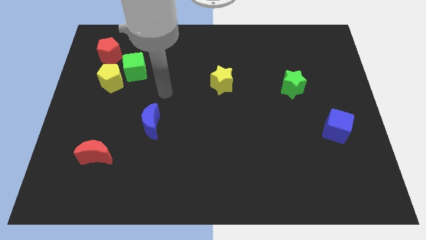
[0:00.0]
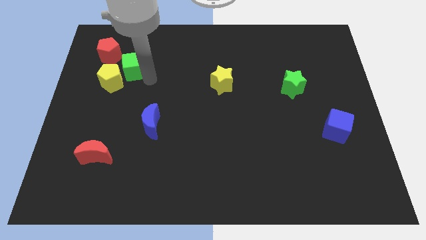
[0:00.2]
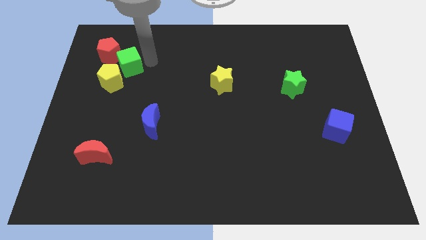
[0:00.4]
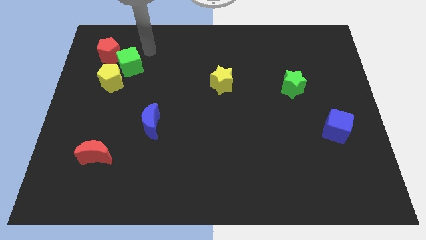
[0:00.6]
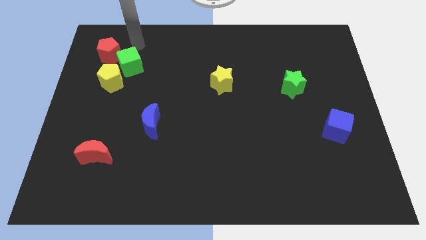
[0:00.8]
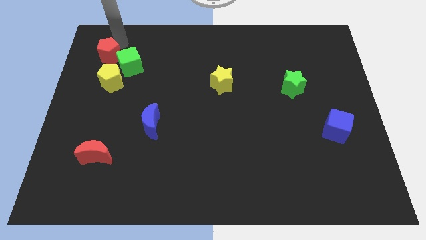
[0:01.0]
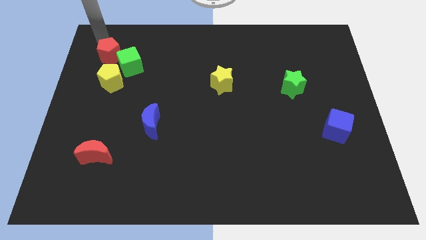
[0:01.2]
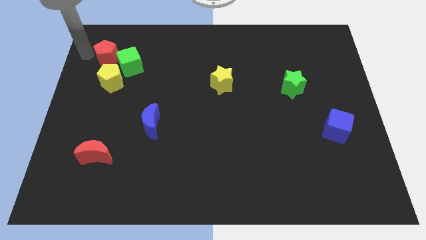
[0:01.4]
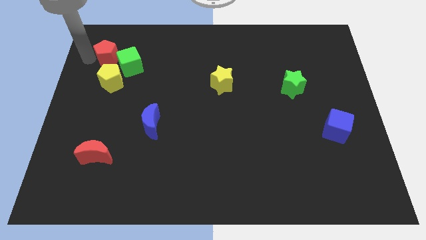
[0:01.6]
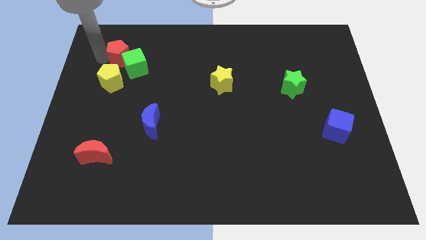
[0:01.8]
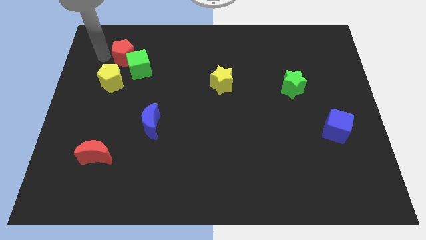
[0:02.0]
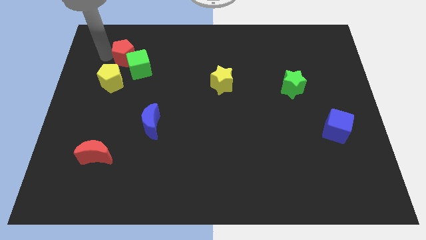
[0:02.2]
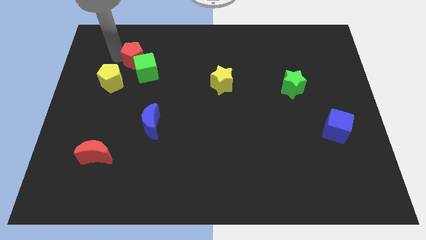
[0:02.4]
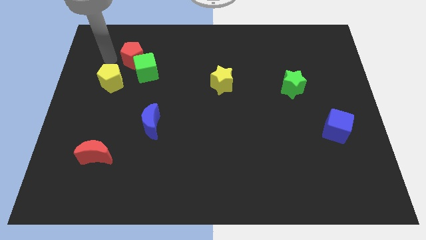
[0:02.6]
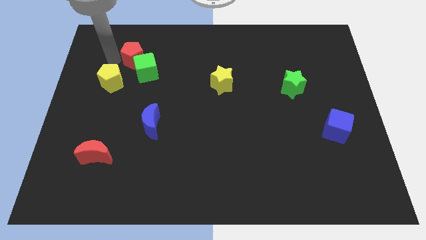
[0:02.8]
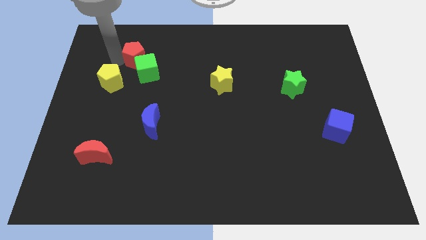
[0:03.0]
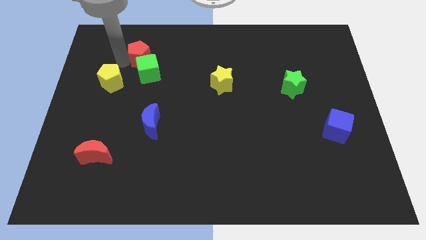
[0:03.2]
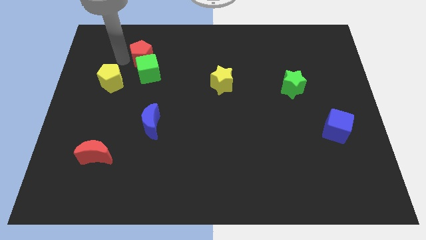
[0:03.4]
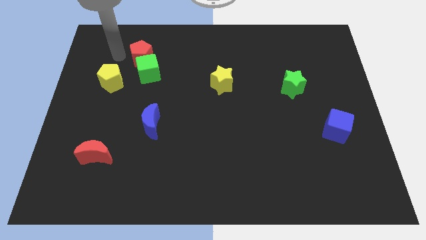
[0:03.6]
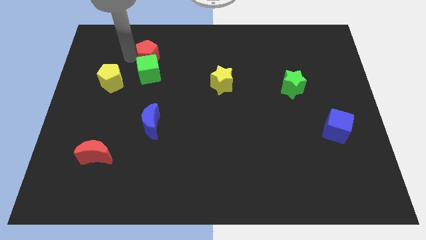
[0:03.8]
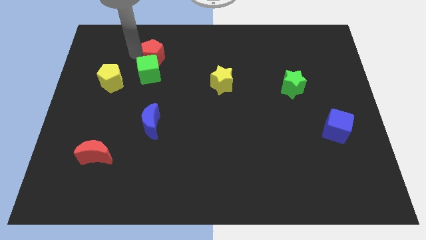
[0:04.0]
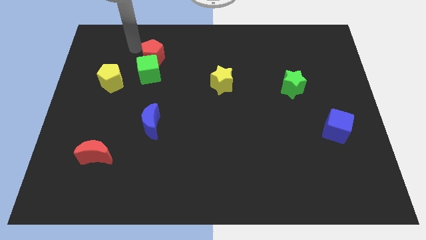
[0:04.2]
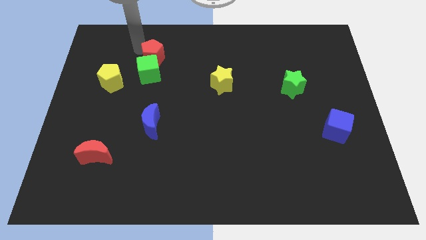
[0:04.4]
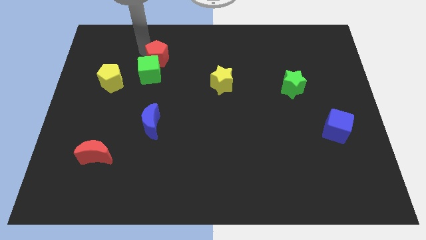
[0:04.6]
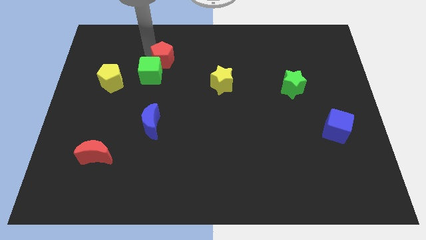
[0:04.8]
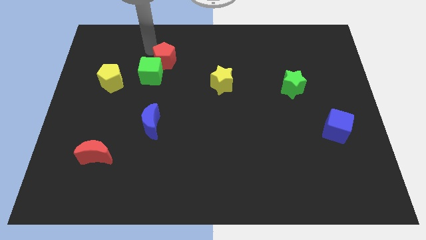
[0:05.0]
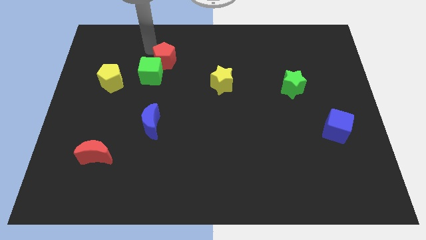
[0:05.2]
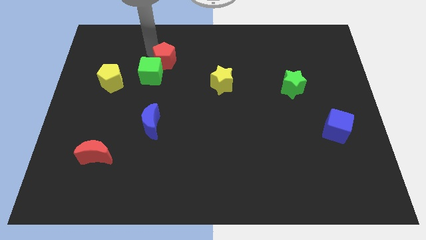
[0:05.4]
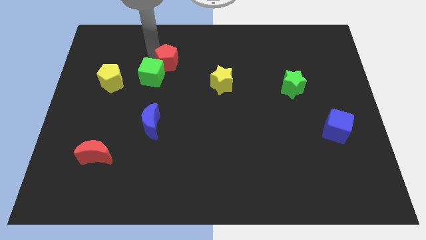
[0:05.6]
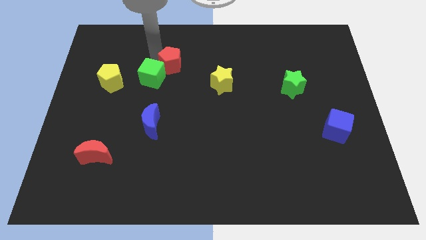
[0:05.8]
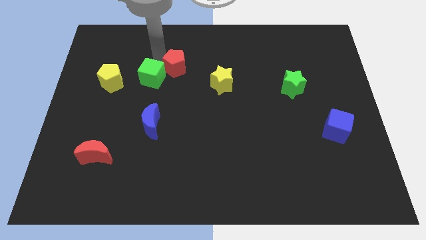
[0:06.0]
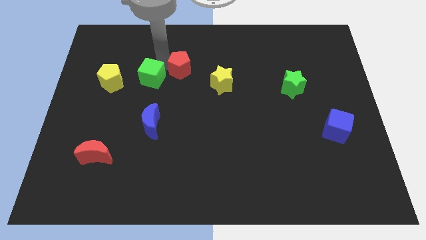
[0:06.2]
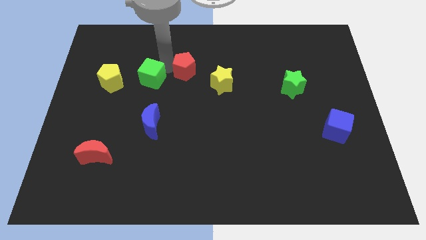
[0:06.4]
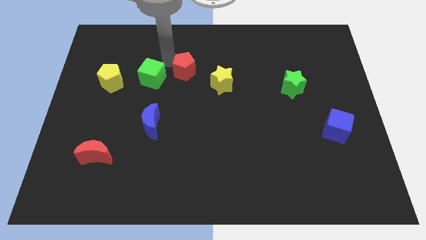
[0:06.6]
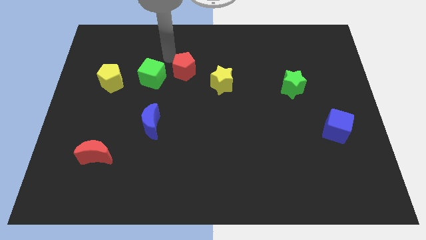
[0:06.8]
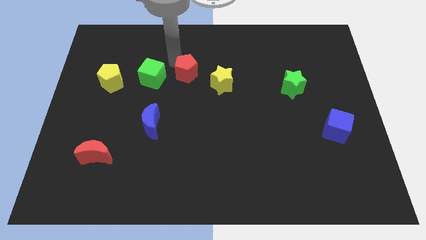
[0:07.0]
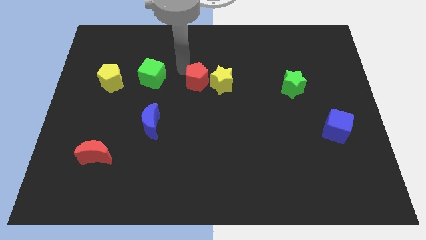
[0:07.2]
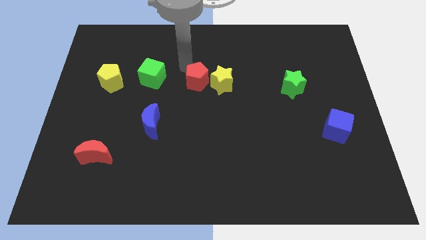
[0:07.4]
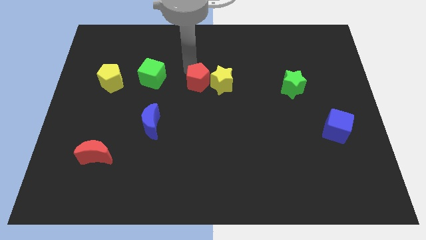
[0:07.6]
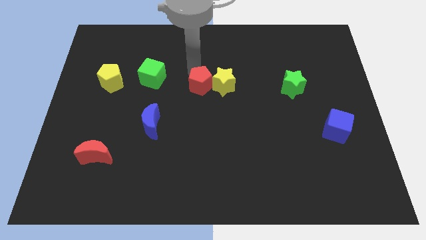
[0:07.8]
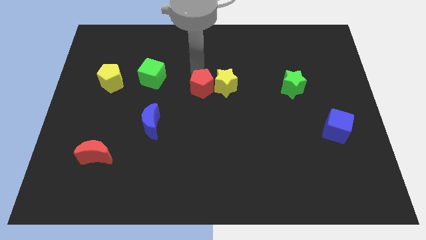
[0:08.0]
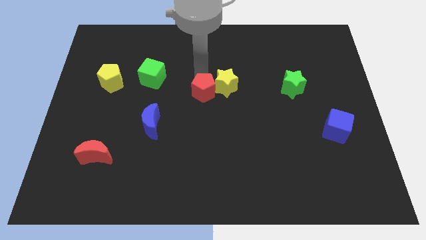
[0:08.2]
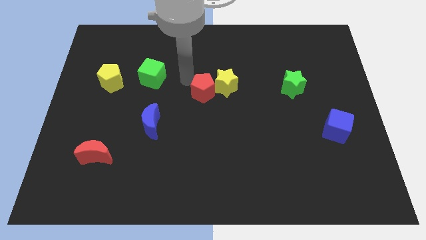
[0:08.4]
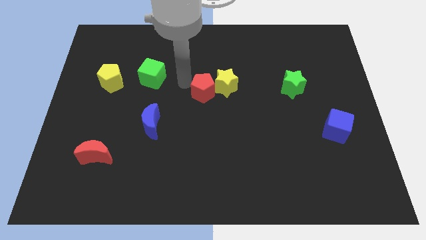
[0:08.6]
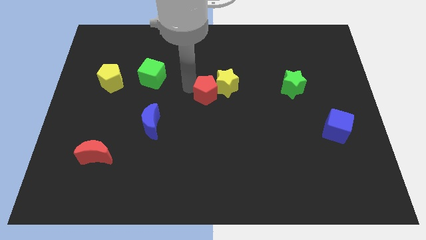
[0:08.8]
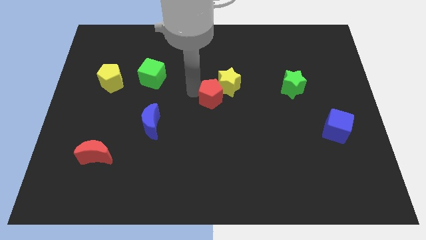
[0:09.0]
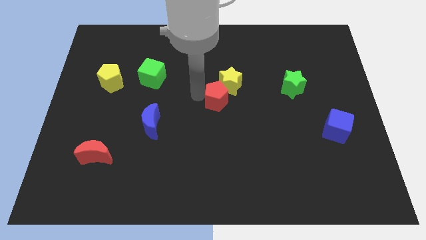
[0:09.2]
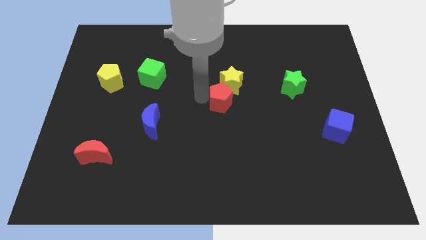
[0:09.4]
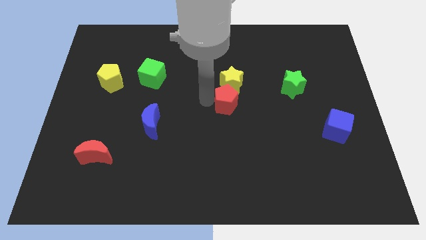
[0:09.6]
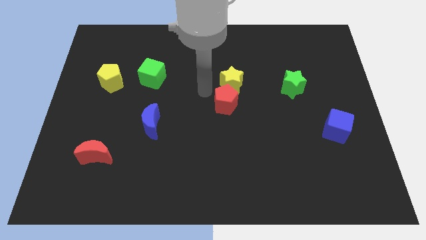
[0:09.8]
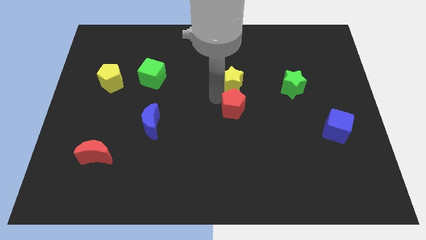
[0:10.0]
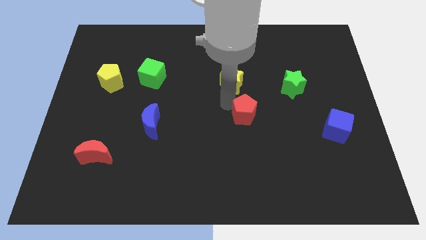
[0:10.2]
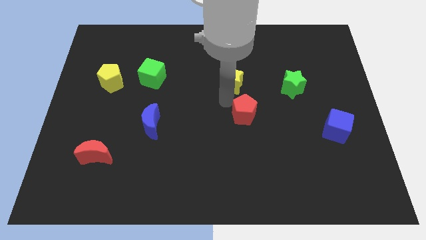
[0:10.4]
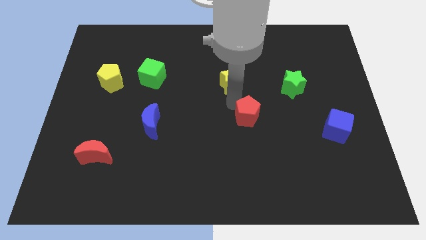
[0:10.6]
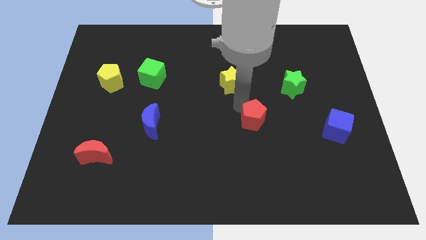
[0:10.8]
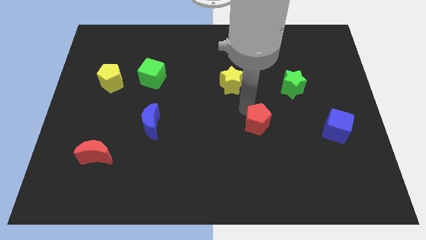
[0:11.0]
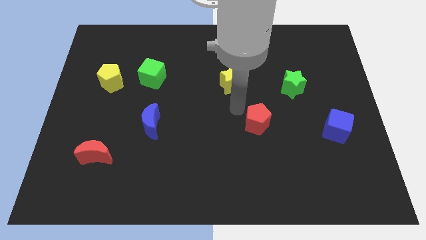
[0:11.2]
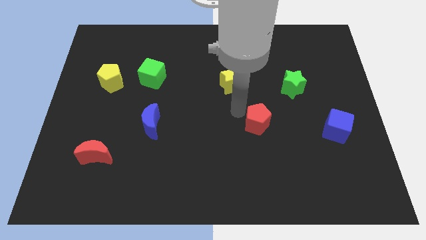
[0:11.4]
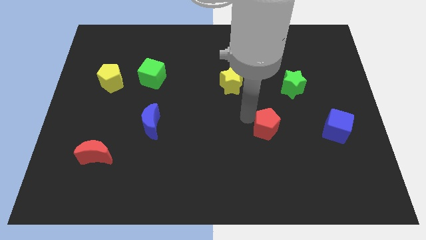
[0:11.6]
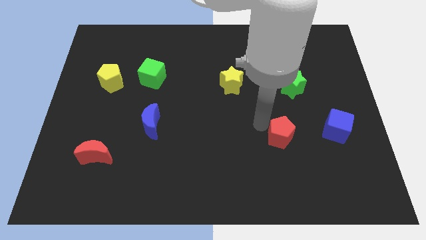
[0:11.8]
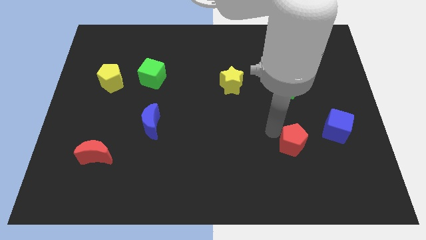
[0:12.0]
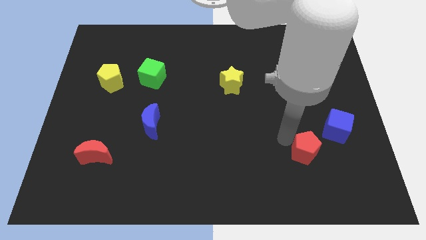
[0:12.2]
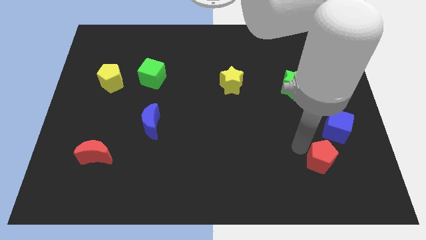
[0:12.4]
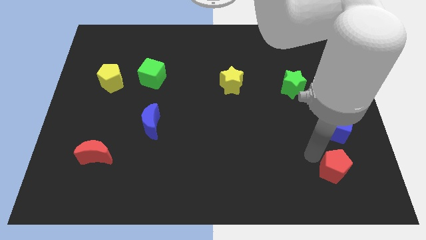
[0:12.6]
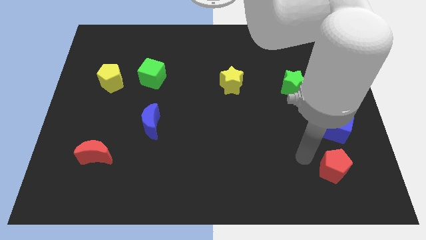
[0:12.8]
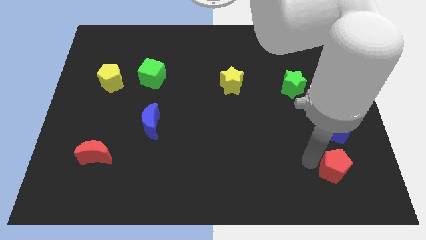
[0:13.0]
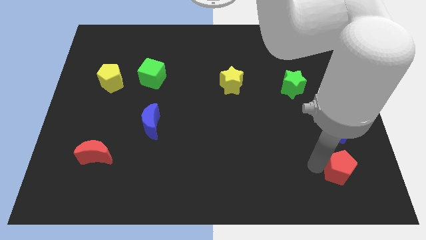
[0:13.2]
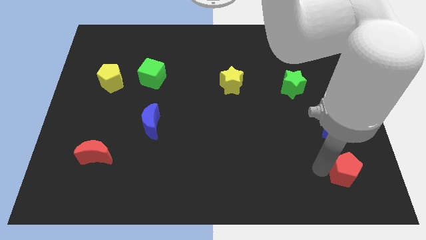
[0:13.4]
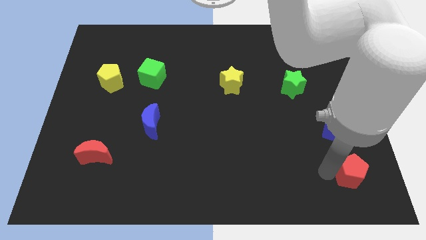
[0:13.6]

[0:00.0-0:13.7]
move the red pentagon to the bottom right of the board
